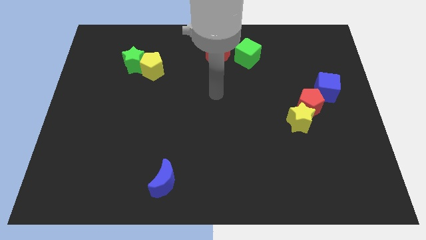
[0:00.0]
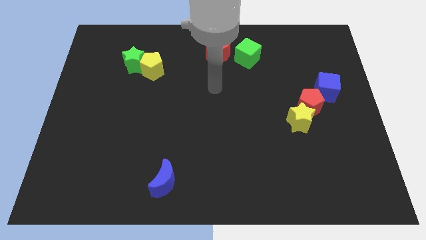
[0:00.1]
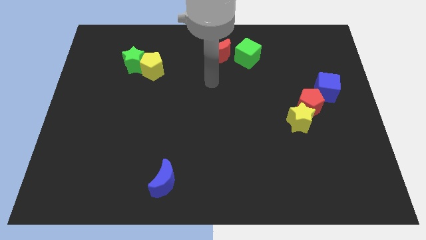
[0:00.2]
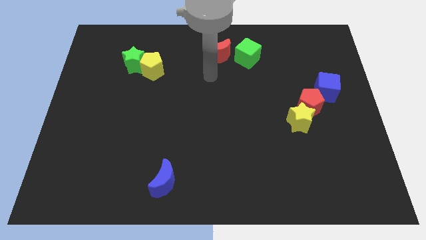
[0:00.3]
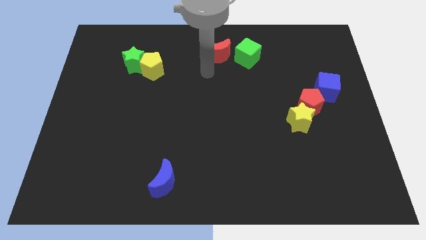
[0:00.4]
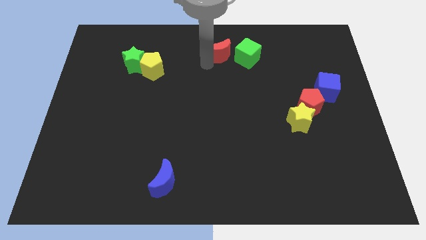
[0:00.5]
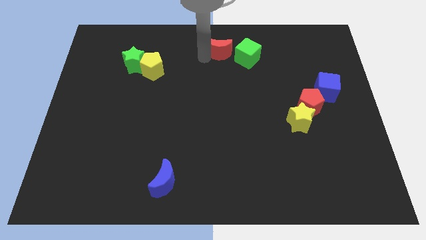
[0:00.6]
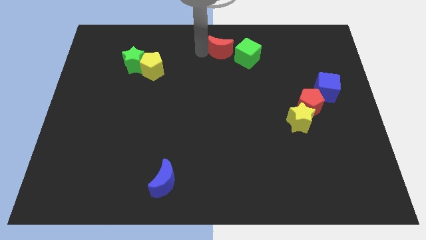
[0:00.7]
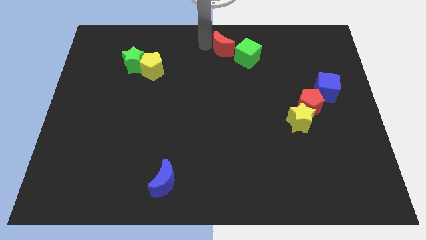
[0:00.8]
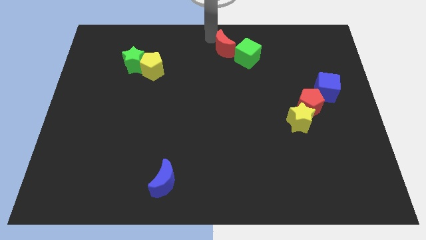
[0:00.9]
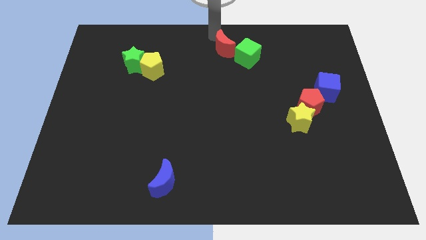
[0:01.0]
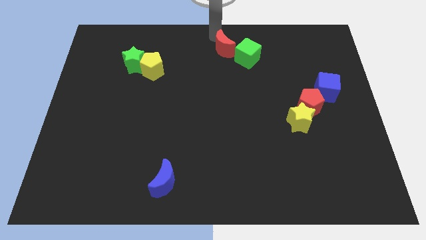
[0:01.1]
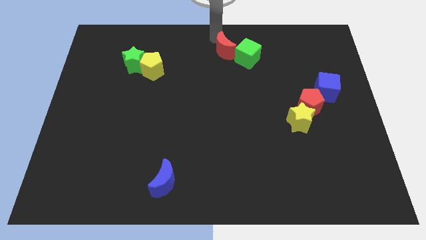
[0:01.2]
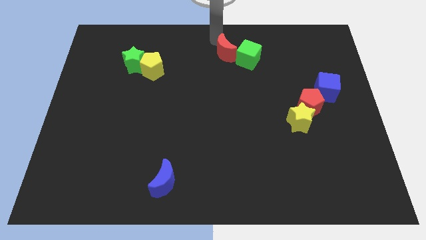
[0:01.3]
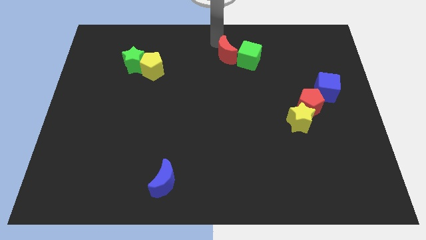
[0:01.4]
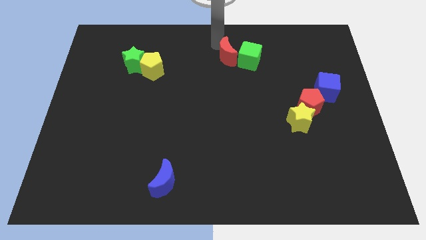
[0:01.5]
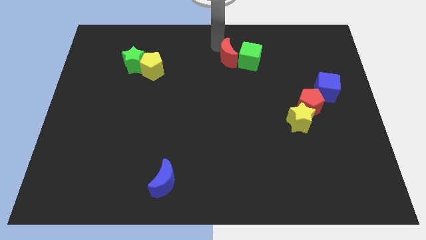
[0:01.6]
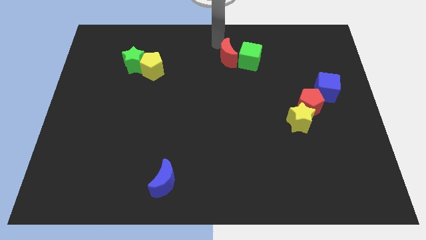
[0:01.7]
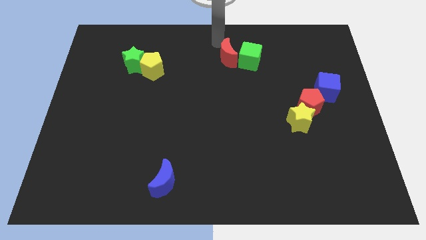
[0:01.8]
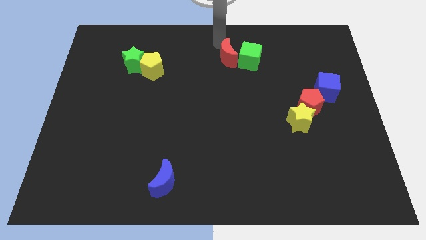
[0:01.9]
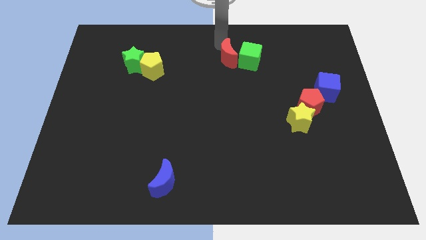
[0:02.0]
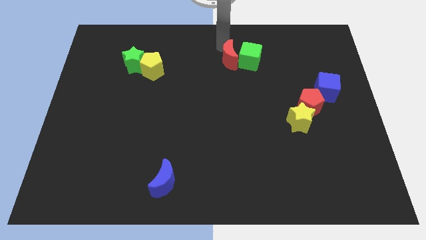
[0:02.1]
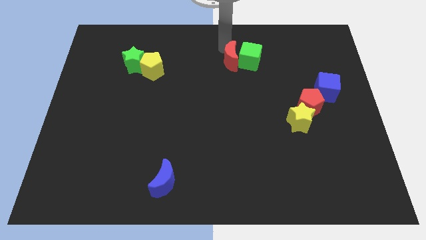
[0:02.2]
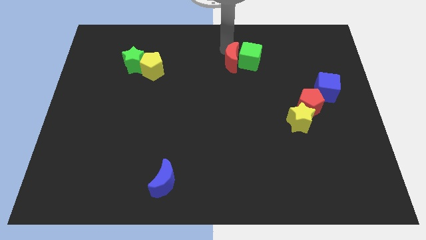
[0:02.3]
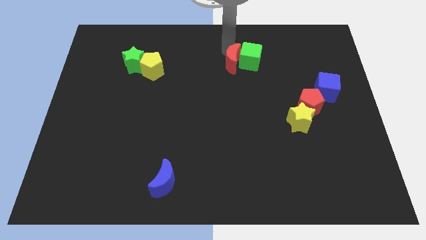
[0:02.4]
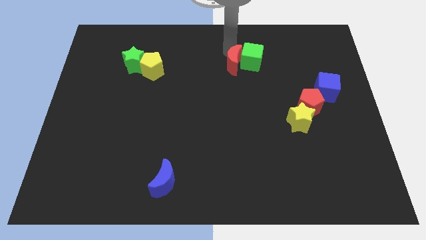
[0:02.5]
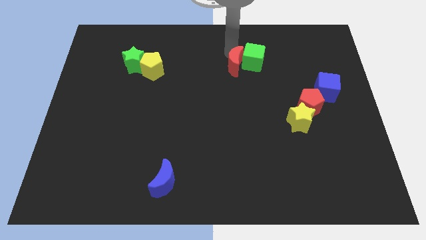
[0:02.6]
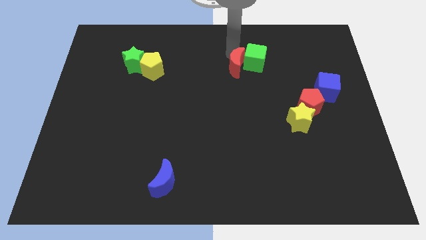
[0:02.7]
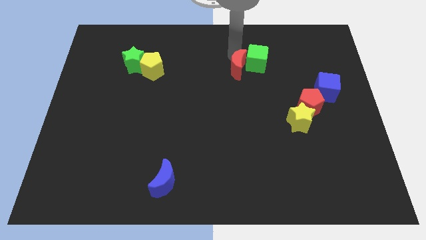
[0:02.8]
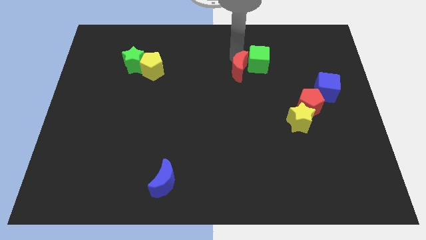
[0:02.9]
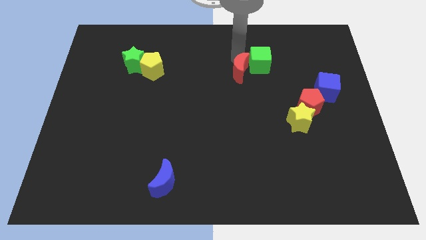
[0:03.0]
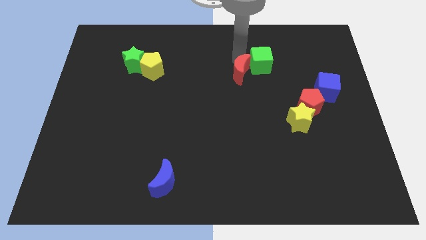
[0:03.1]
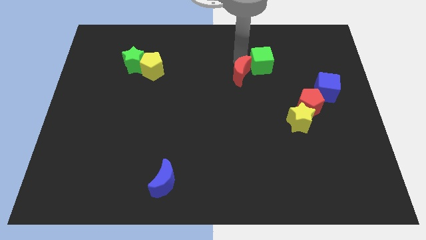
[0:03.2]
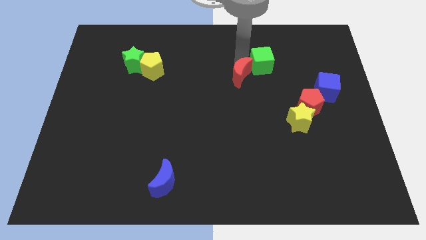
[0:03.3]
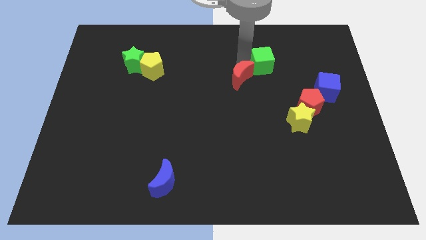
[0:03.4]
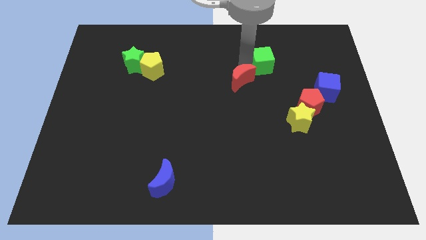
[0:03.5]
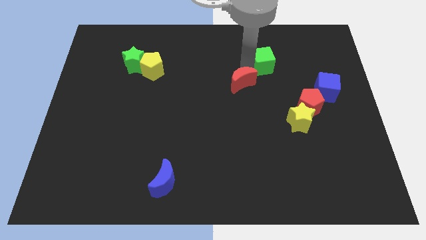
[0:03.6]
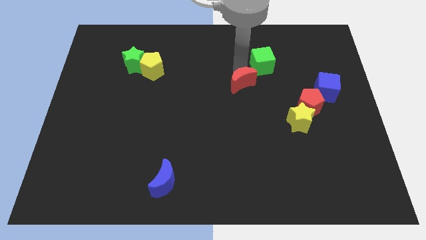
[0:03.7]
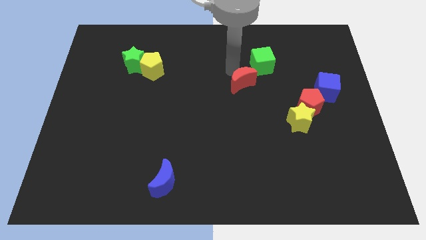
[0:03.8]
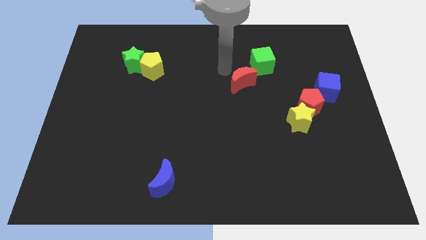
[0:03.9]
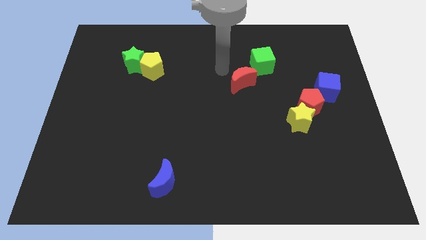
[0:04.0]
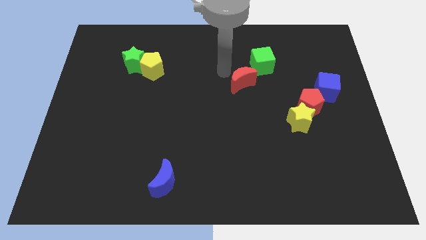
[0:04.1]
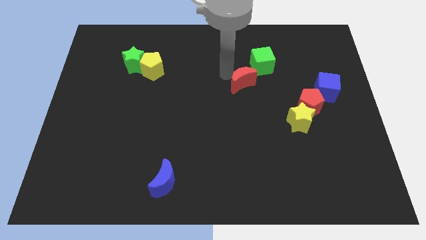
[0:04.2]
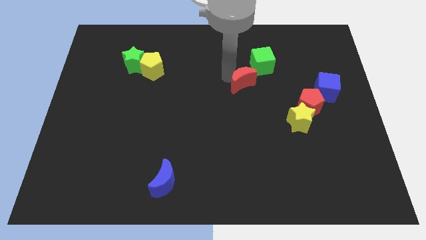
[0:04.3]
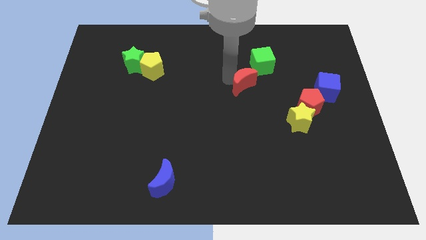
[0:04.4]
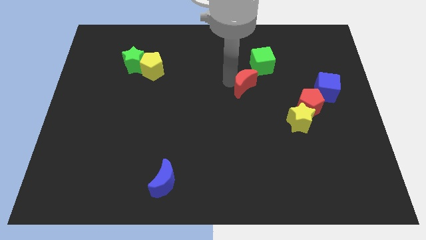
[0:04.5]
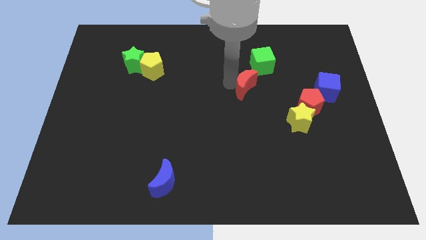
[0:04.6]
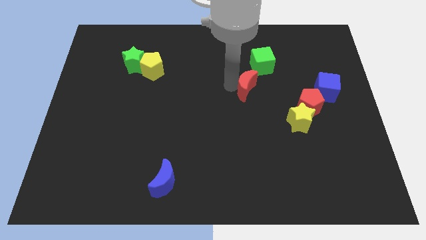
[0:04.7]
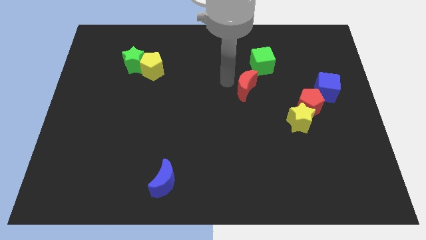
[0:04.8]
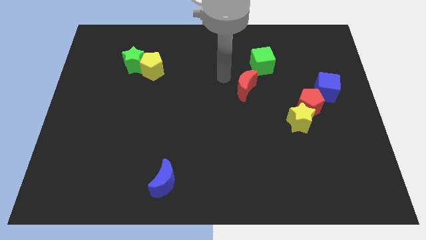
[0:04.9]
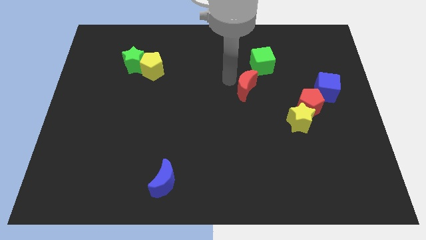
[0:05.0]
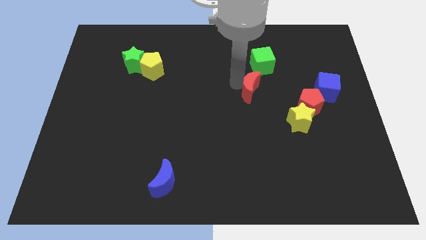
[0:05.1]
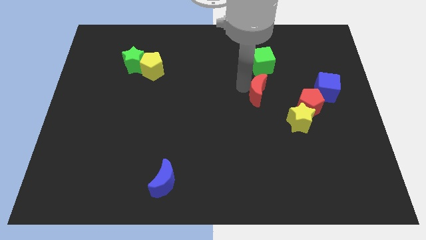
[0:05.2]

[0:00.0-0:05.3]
move the red moon diagonally up and to the left of the yellow star

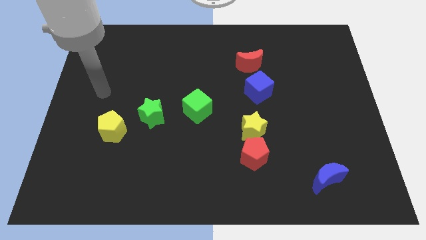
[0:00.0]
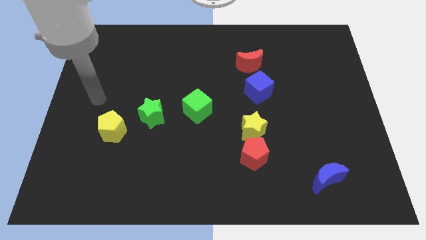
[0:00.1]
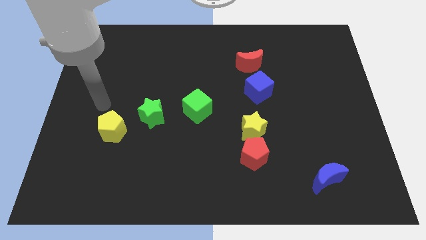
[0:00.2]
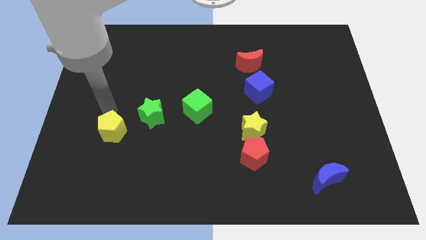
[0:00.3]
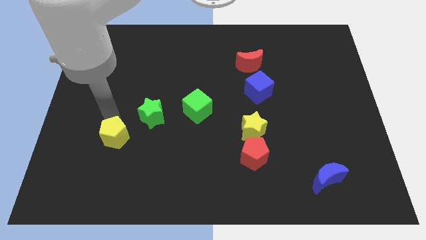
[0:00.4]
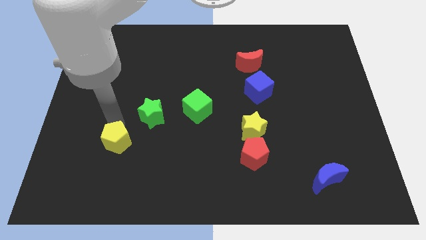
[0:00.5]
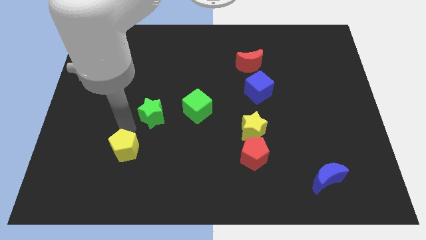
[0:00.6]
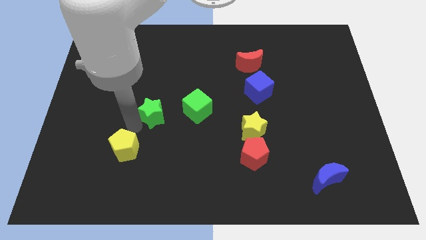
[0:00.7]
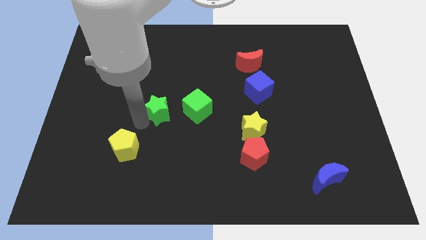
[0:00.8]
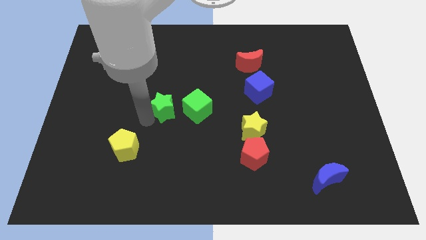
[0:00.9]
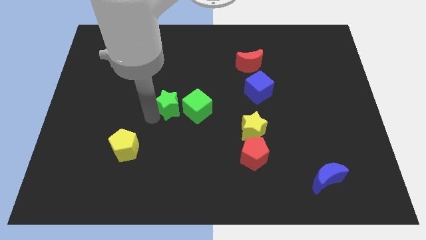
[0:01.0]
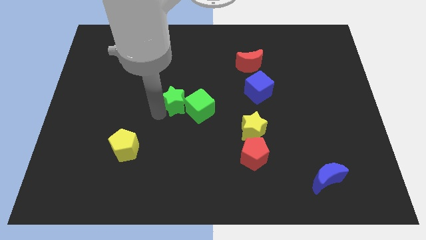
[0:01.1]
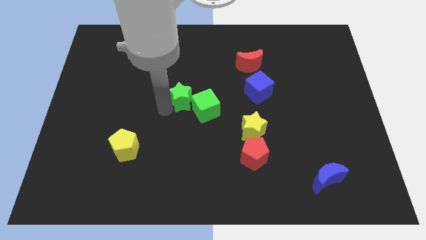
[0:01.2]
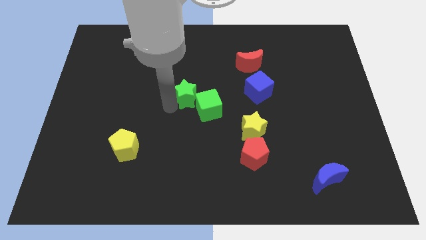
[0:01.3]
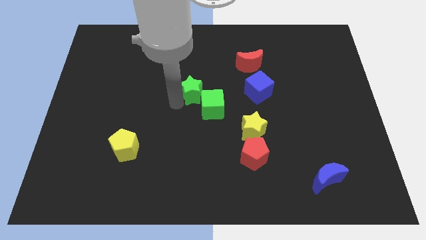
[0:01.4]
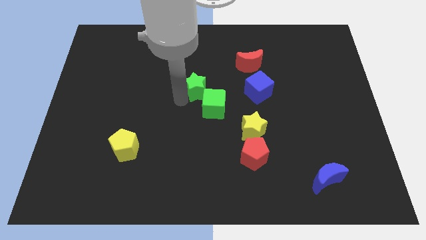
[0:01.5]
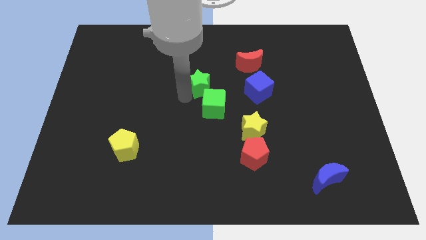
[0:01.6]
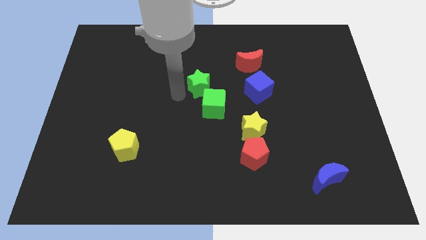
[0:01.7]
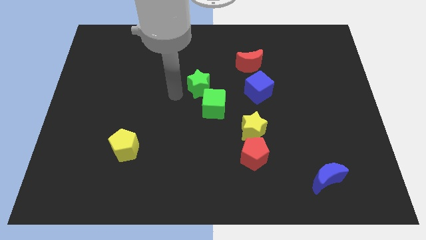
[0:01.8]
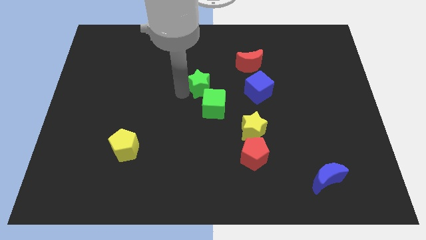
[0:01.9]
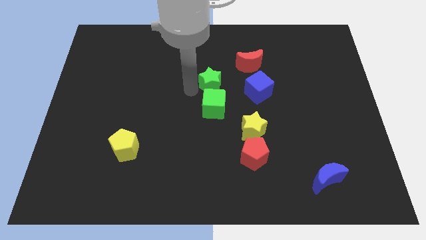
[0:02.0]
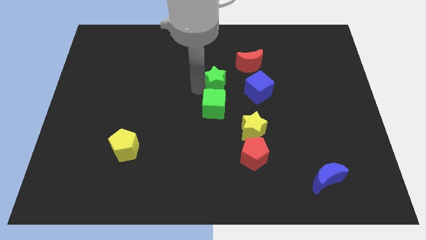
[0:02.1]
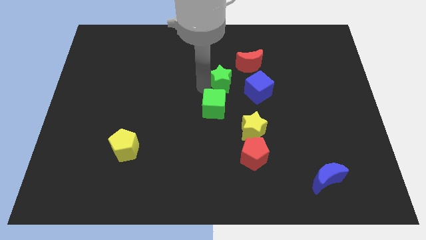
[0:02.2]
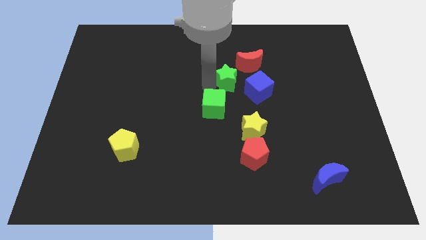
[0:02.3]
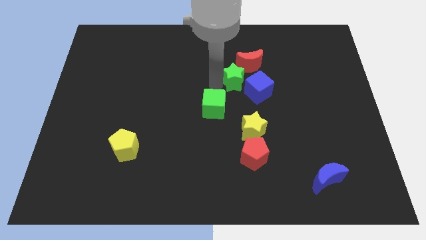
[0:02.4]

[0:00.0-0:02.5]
move the green star to the top side of the yellow star
